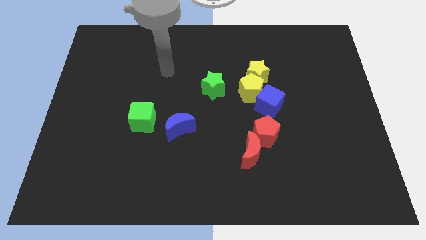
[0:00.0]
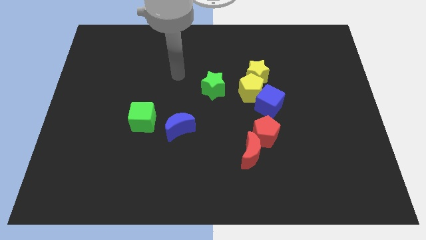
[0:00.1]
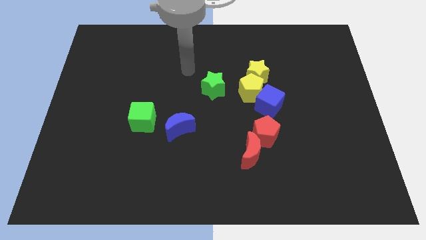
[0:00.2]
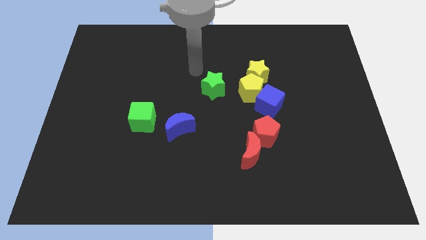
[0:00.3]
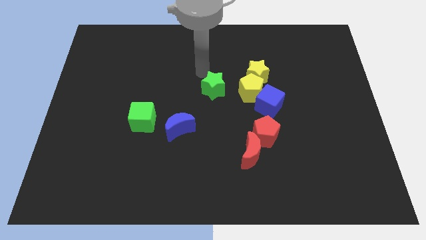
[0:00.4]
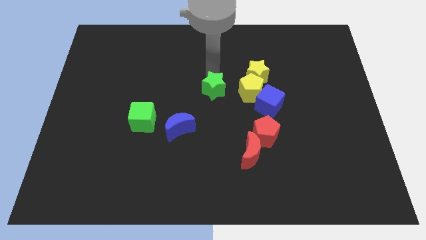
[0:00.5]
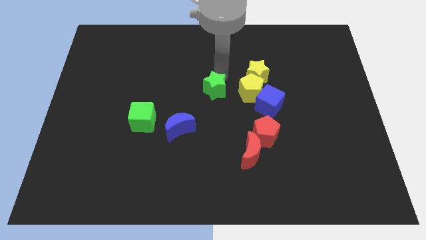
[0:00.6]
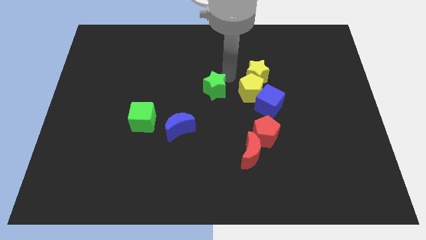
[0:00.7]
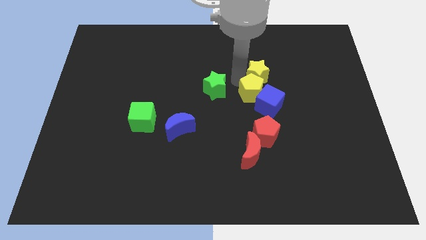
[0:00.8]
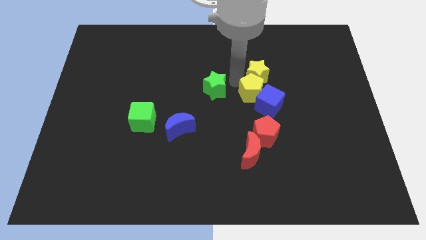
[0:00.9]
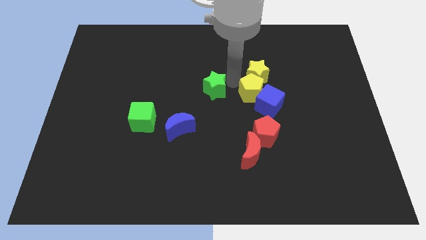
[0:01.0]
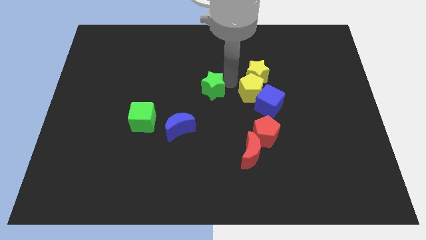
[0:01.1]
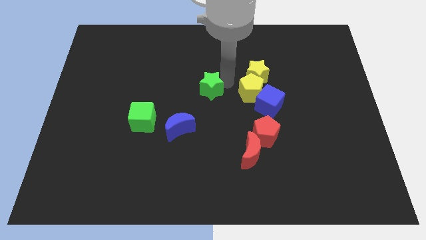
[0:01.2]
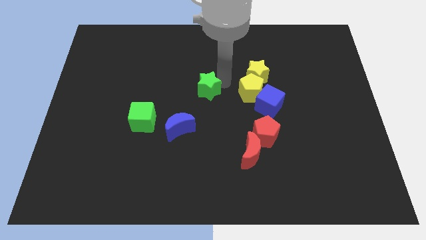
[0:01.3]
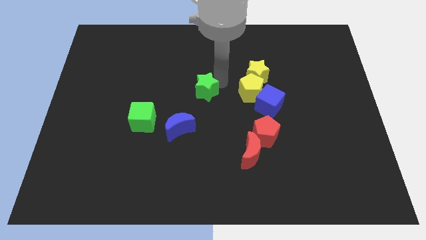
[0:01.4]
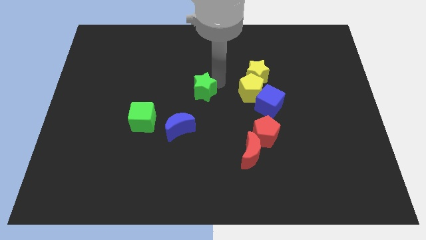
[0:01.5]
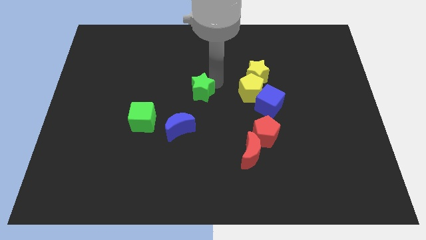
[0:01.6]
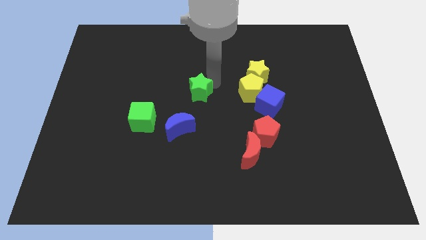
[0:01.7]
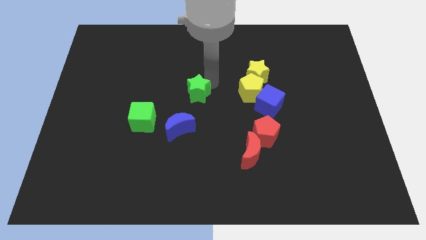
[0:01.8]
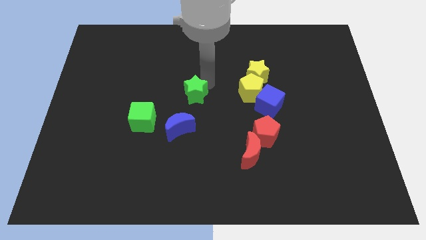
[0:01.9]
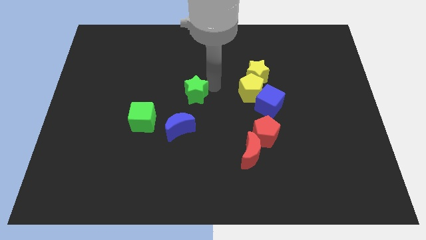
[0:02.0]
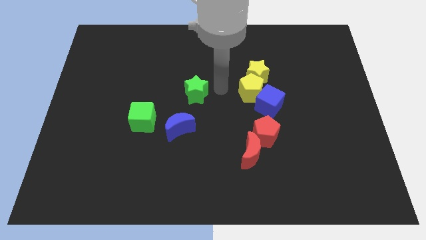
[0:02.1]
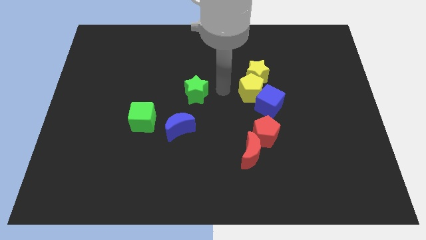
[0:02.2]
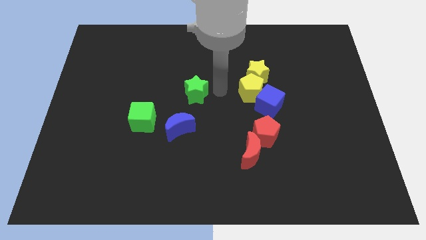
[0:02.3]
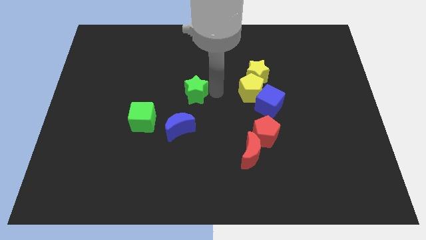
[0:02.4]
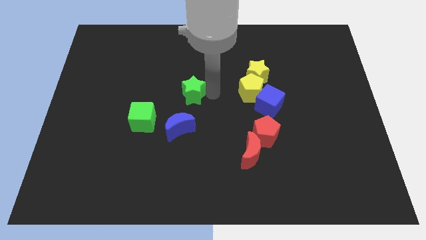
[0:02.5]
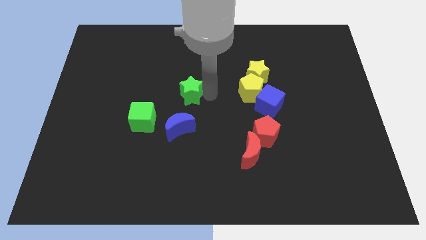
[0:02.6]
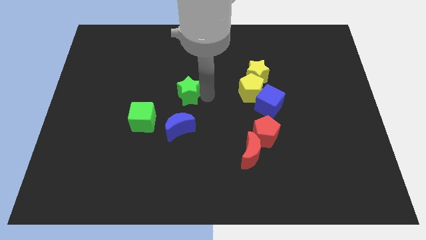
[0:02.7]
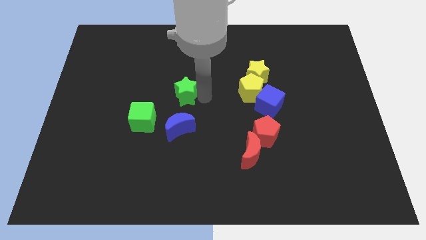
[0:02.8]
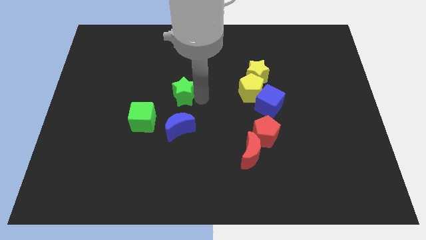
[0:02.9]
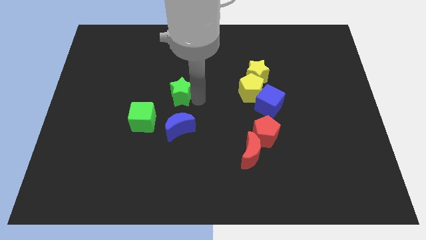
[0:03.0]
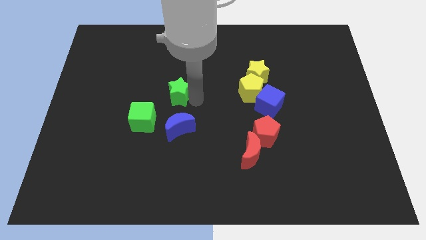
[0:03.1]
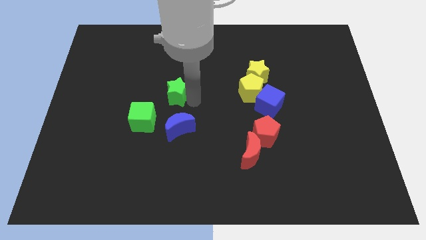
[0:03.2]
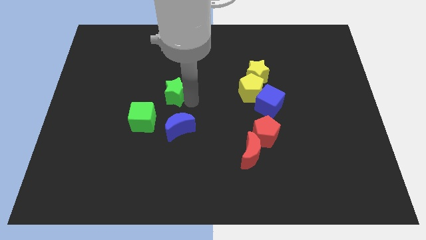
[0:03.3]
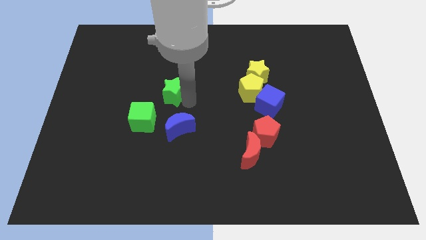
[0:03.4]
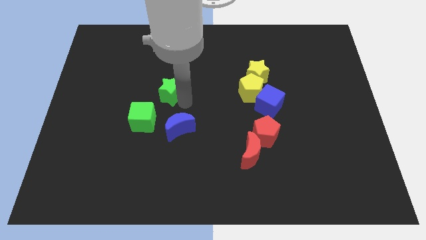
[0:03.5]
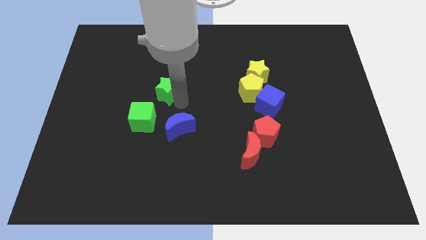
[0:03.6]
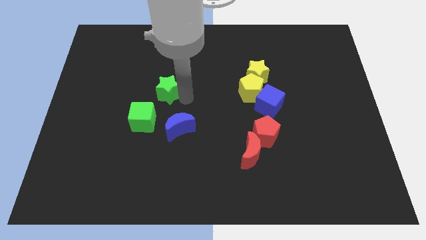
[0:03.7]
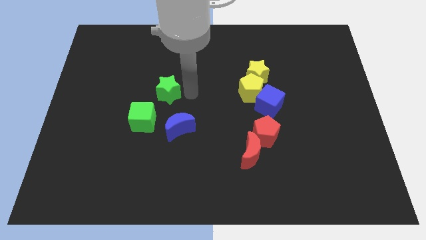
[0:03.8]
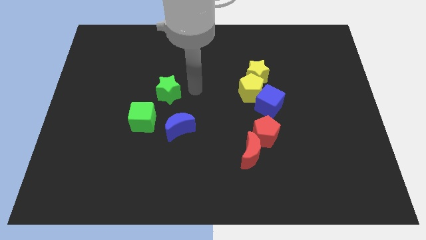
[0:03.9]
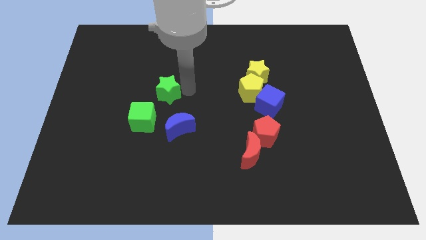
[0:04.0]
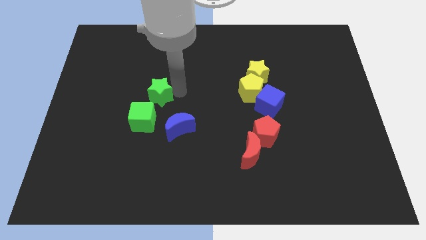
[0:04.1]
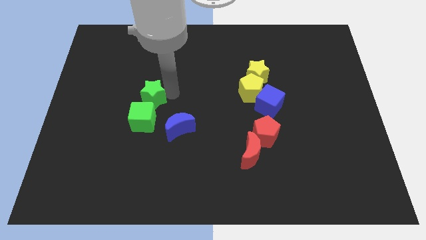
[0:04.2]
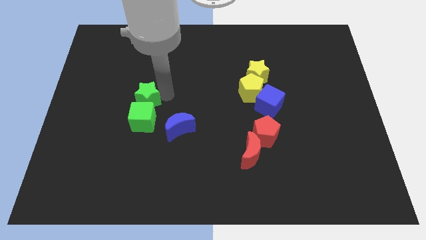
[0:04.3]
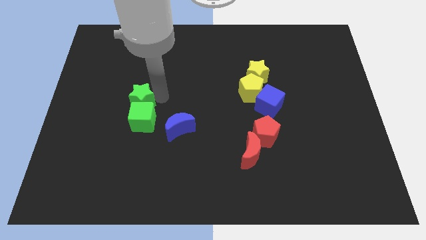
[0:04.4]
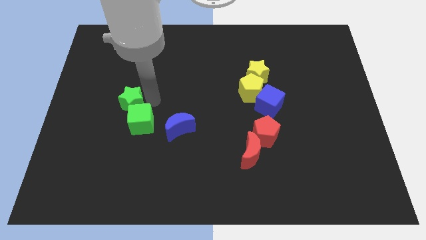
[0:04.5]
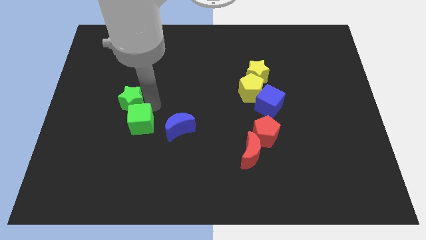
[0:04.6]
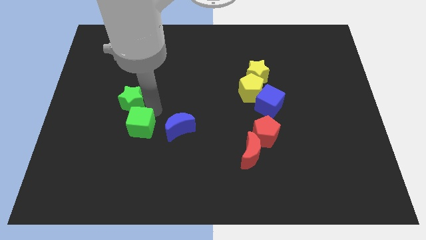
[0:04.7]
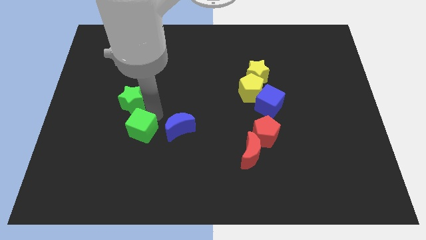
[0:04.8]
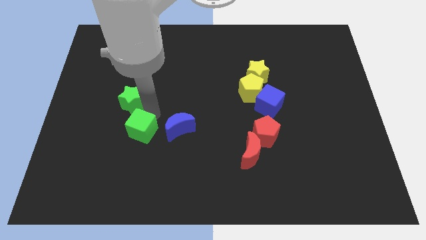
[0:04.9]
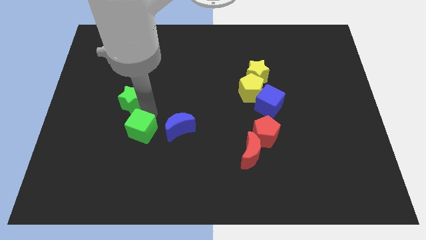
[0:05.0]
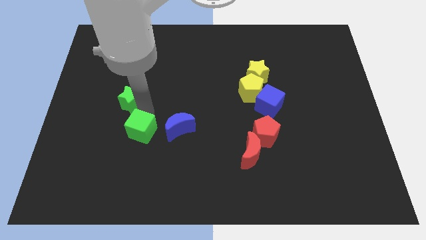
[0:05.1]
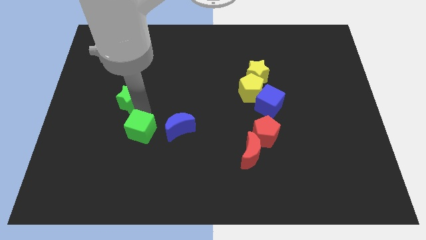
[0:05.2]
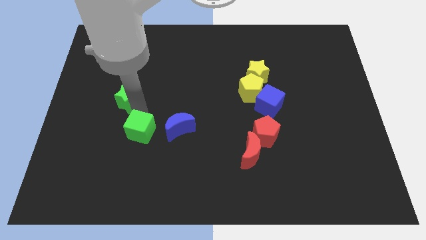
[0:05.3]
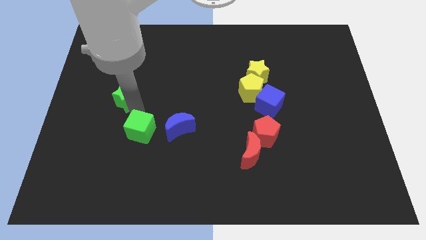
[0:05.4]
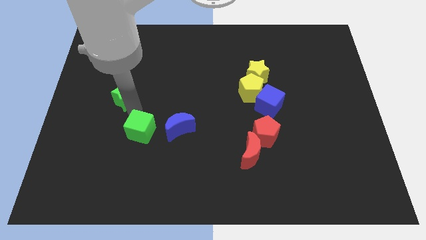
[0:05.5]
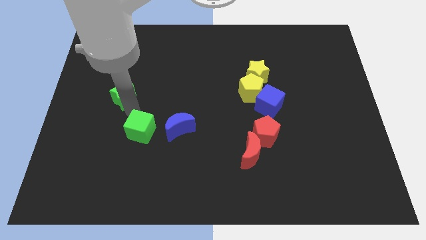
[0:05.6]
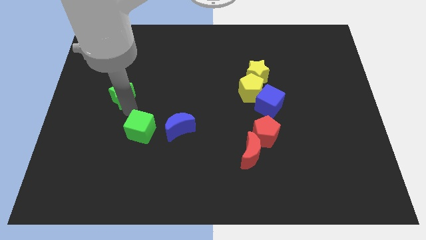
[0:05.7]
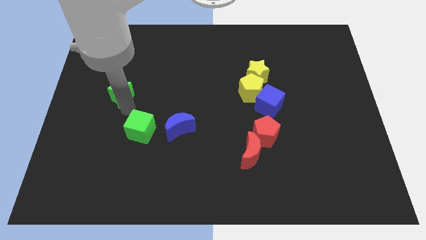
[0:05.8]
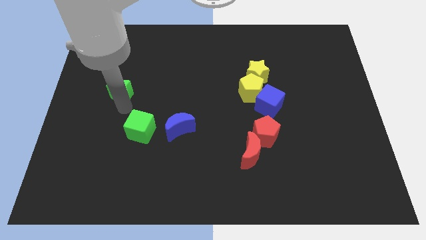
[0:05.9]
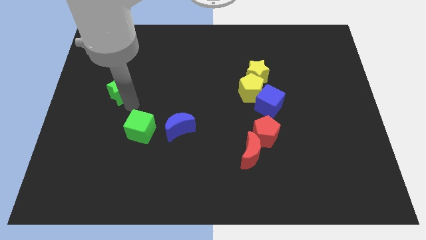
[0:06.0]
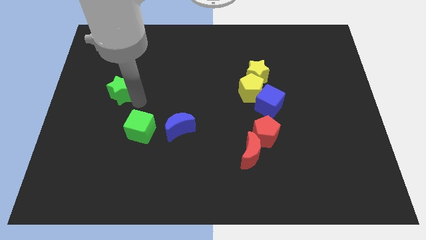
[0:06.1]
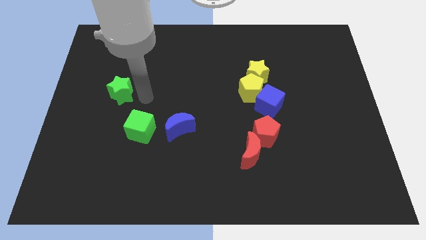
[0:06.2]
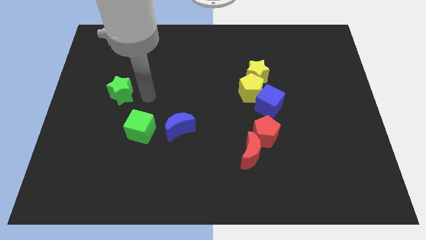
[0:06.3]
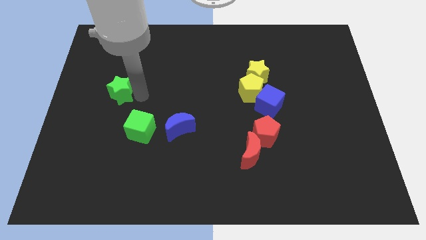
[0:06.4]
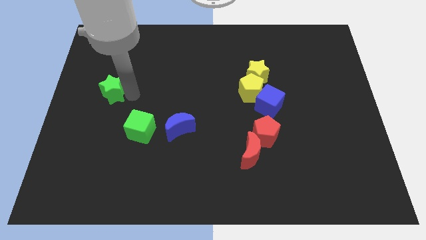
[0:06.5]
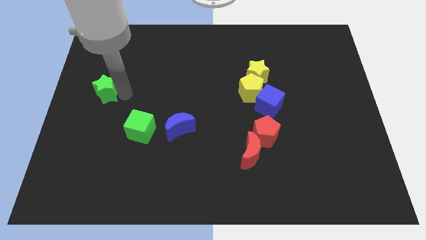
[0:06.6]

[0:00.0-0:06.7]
slide the green star to the center left
